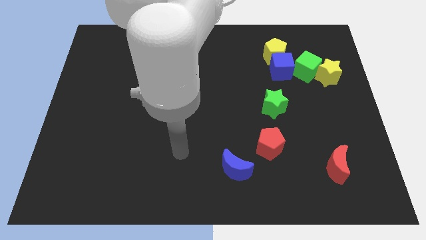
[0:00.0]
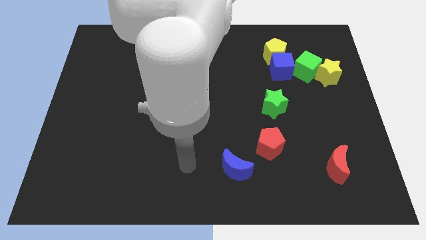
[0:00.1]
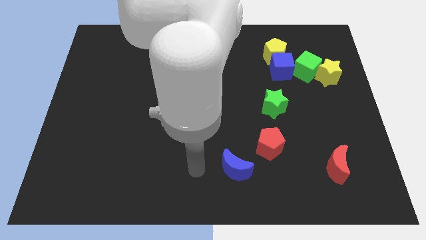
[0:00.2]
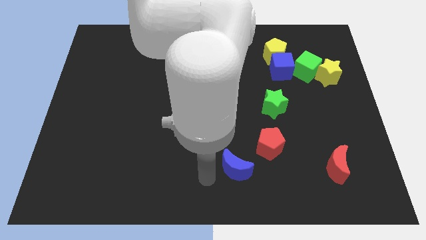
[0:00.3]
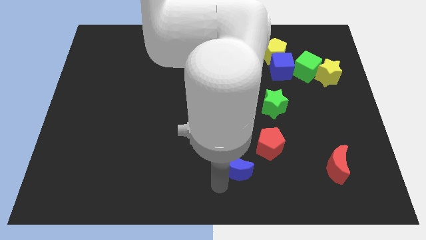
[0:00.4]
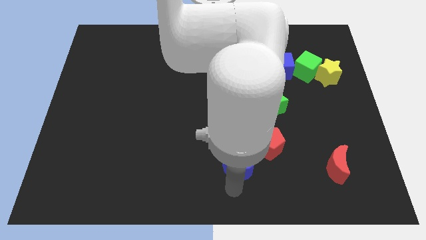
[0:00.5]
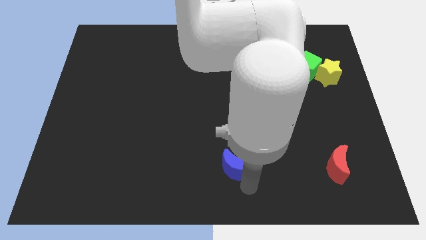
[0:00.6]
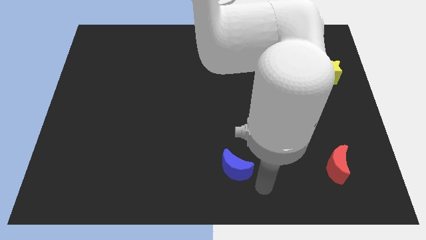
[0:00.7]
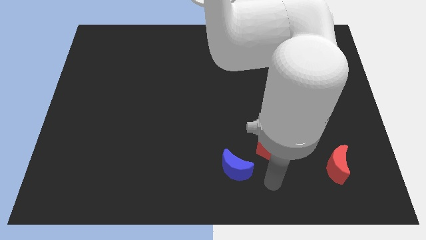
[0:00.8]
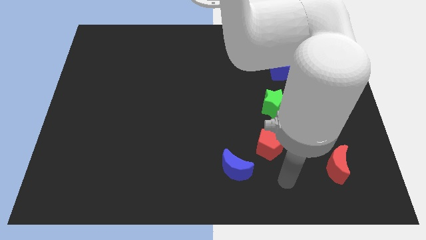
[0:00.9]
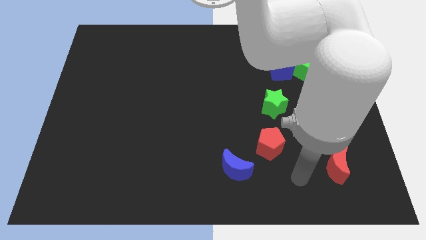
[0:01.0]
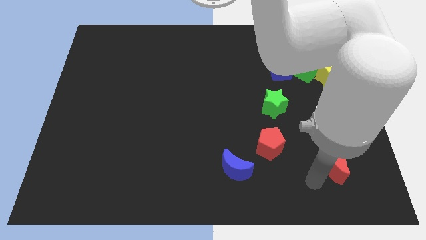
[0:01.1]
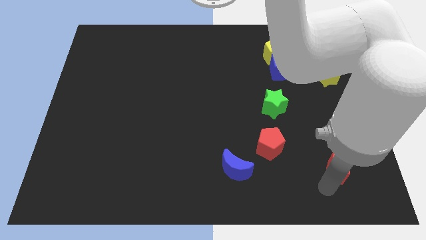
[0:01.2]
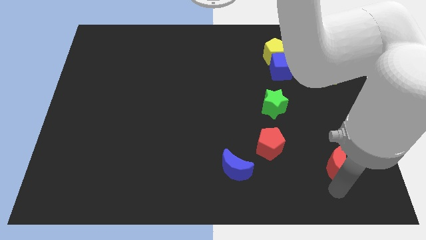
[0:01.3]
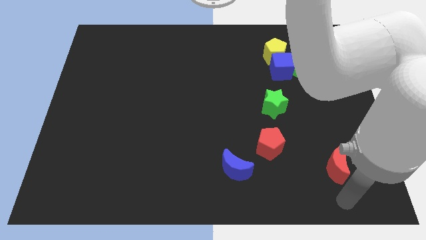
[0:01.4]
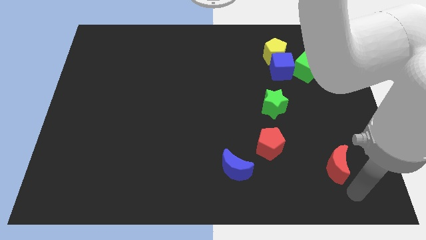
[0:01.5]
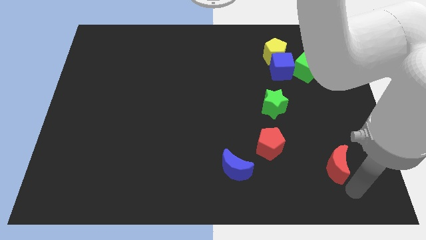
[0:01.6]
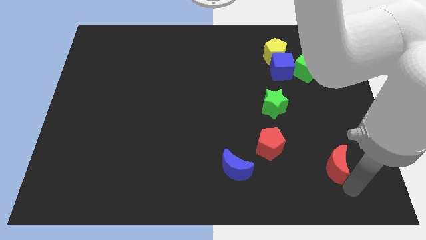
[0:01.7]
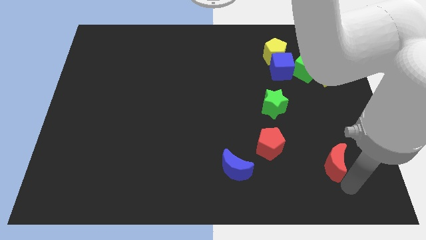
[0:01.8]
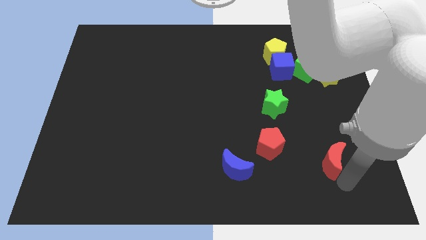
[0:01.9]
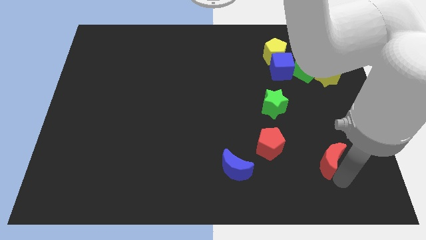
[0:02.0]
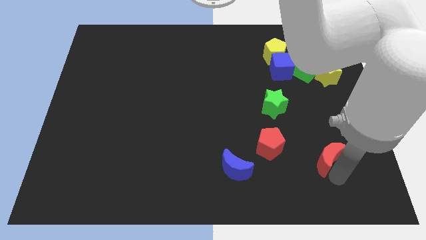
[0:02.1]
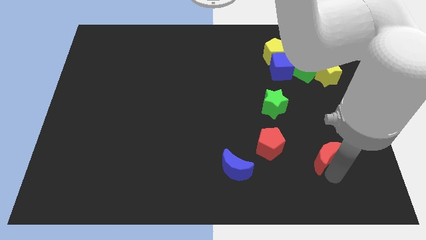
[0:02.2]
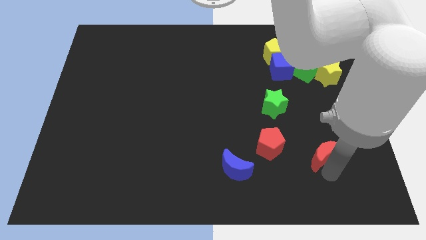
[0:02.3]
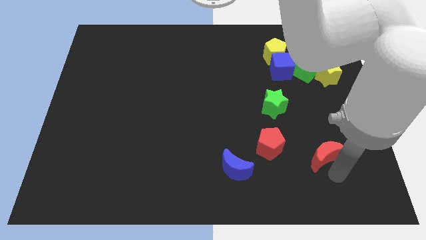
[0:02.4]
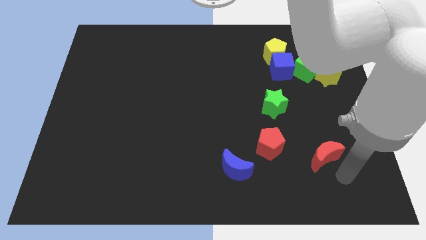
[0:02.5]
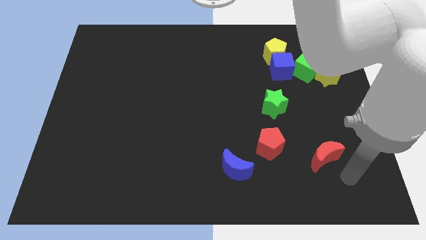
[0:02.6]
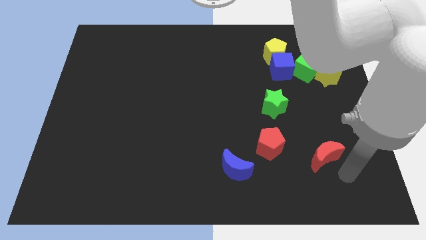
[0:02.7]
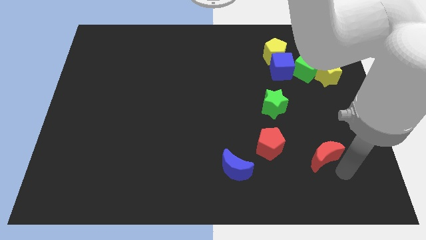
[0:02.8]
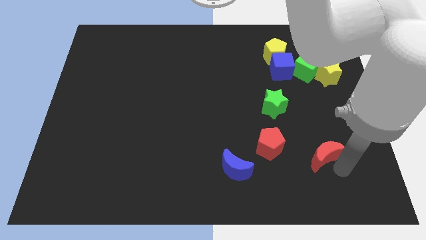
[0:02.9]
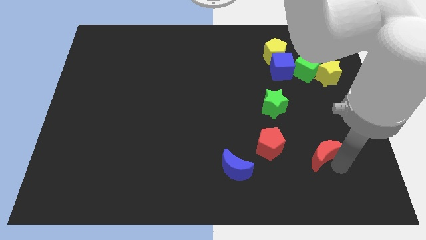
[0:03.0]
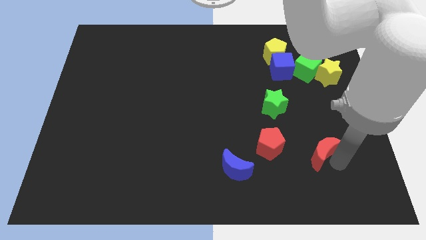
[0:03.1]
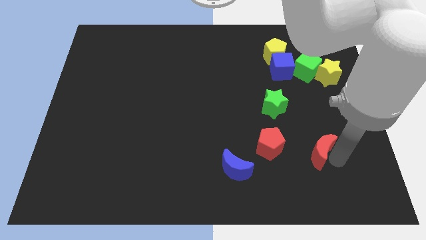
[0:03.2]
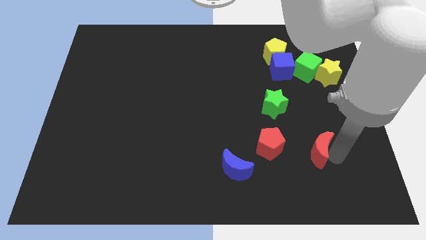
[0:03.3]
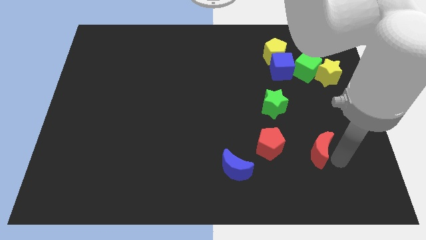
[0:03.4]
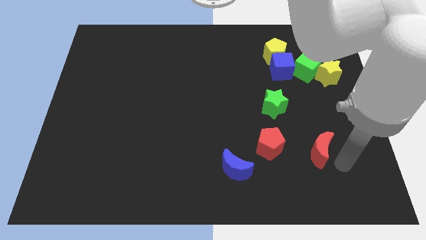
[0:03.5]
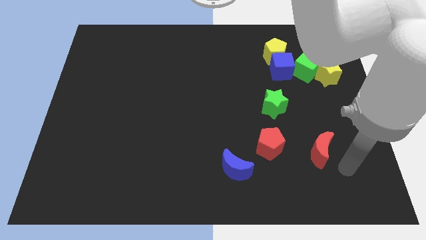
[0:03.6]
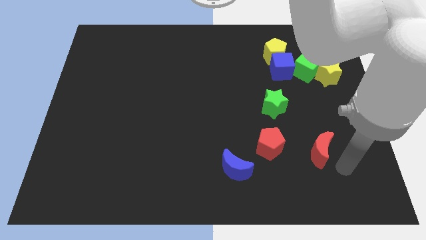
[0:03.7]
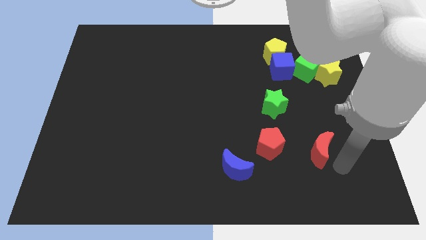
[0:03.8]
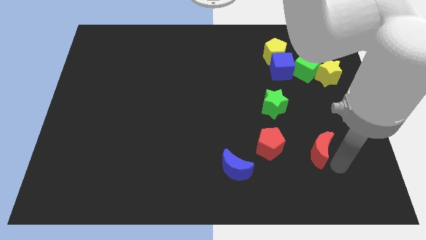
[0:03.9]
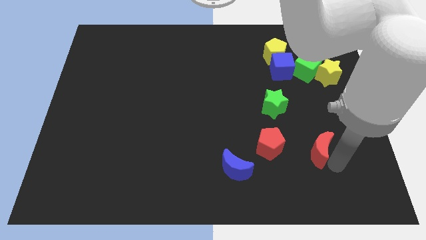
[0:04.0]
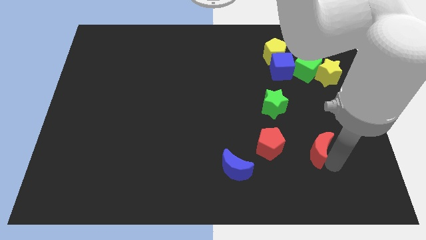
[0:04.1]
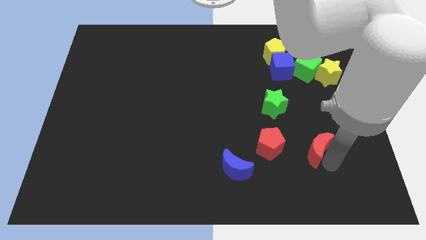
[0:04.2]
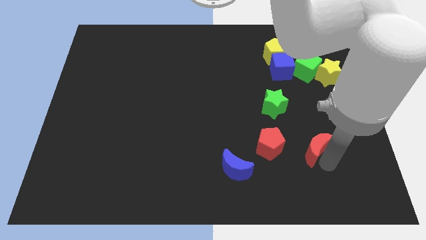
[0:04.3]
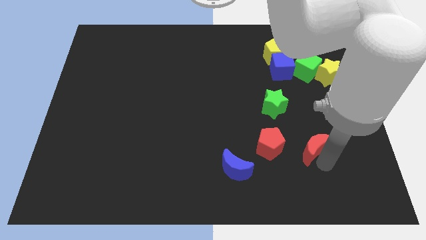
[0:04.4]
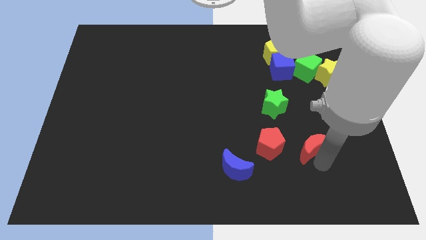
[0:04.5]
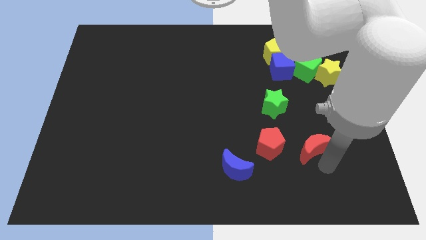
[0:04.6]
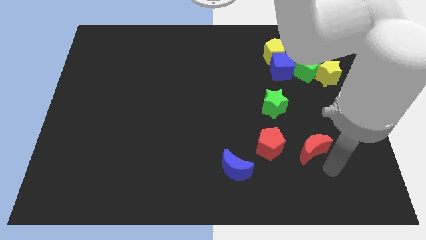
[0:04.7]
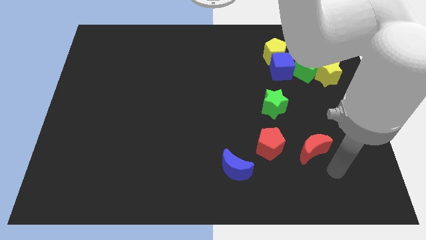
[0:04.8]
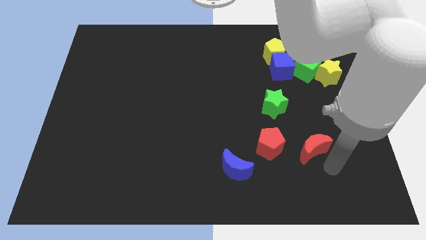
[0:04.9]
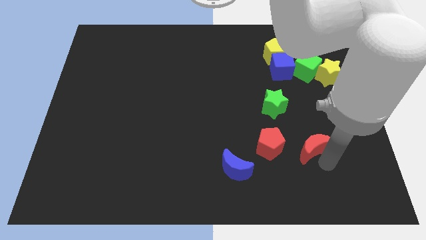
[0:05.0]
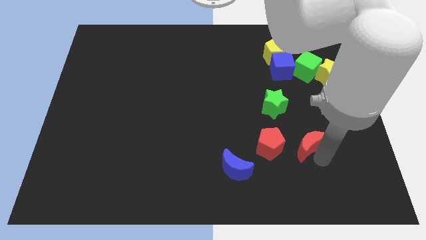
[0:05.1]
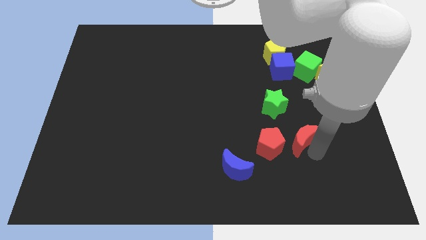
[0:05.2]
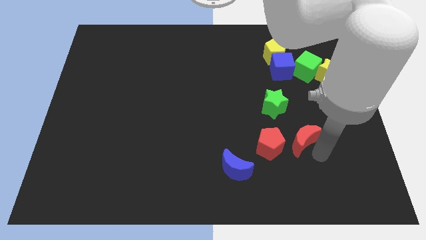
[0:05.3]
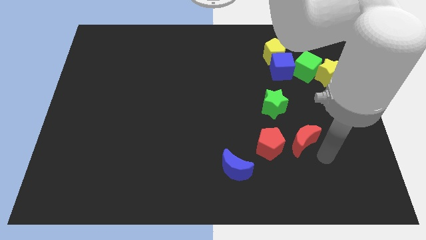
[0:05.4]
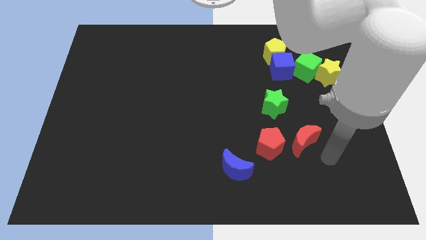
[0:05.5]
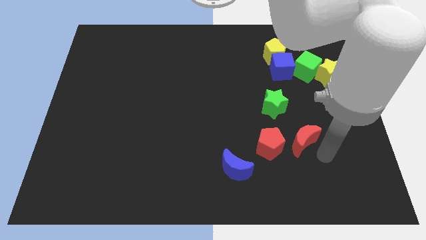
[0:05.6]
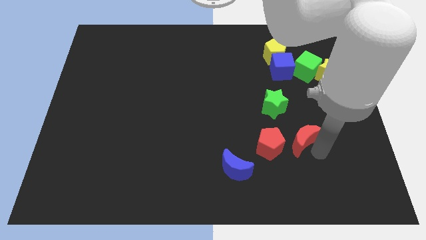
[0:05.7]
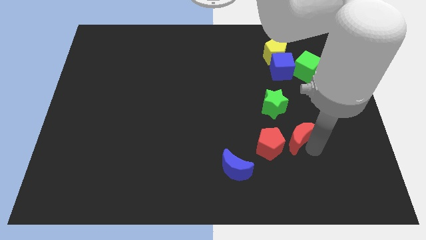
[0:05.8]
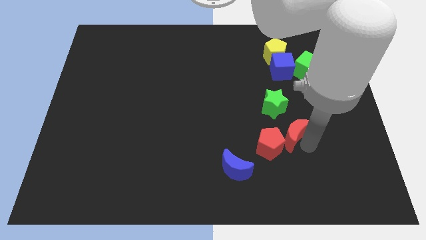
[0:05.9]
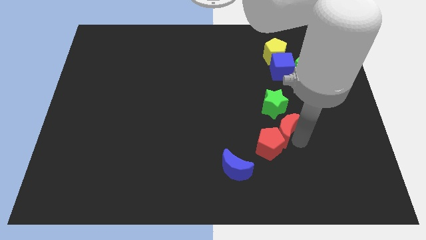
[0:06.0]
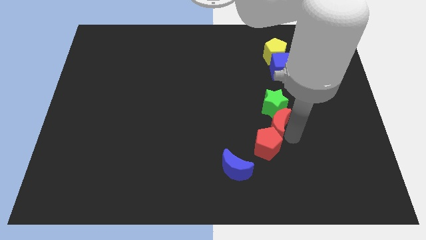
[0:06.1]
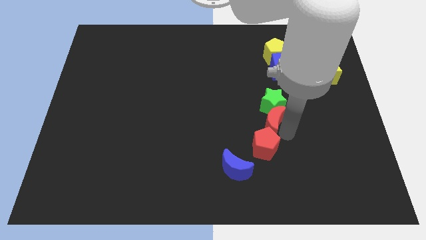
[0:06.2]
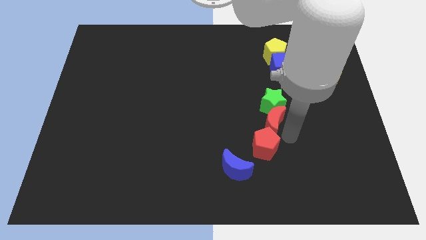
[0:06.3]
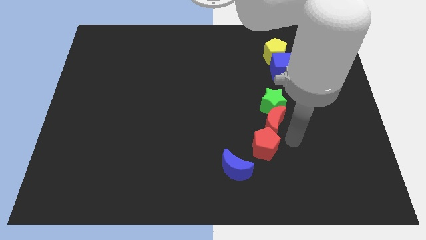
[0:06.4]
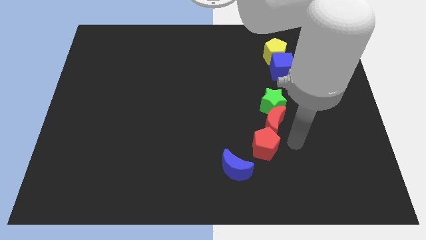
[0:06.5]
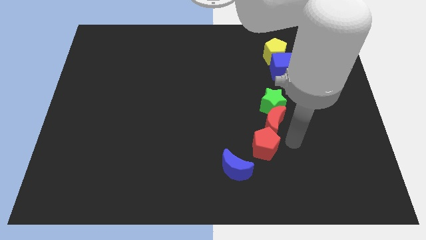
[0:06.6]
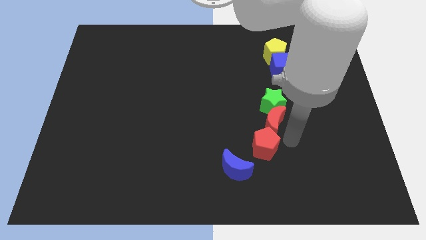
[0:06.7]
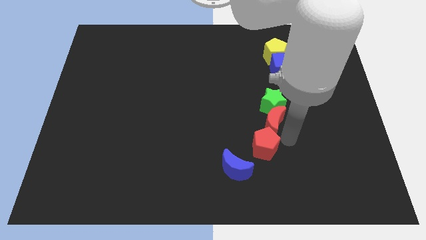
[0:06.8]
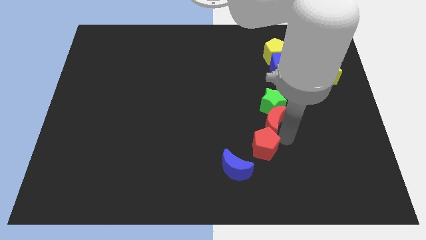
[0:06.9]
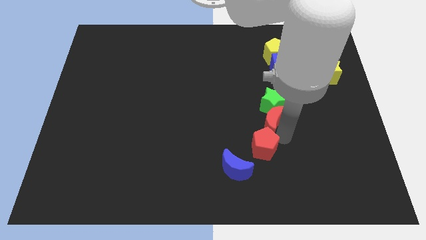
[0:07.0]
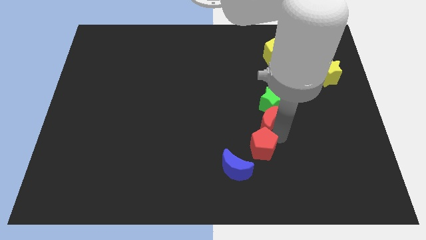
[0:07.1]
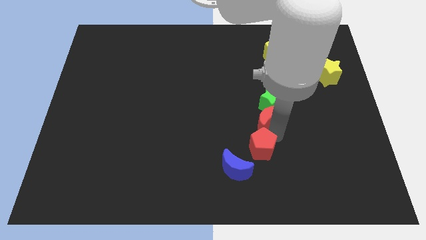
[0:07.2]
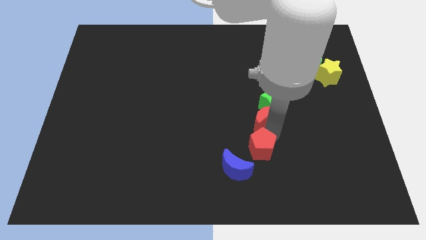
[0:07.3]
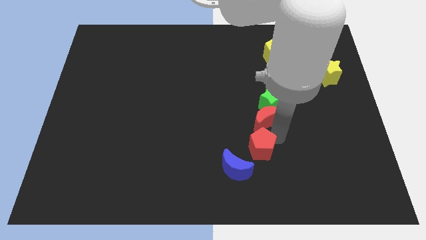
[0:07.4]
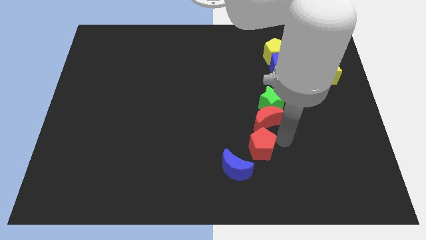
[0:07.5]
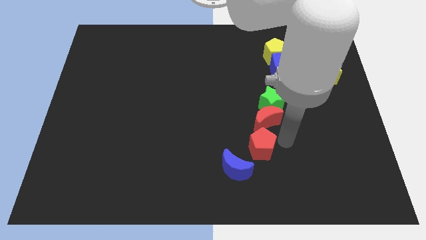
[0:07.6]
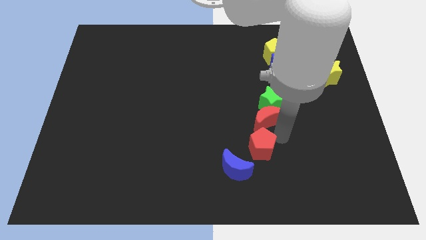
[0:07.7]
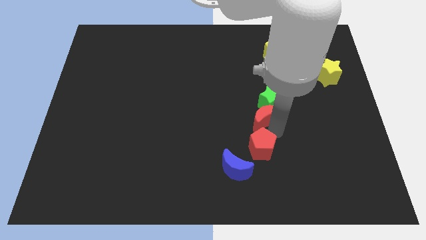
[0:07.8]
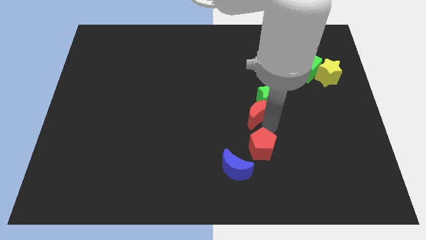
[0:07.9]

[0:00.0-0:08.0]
push the red moon upwards and left
